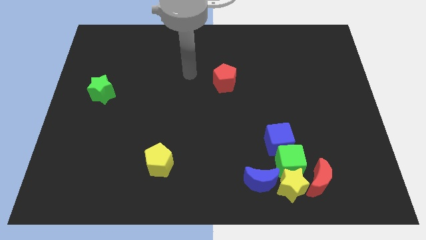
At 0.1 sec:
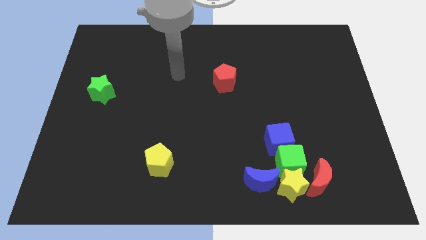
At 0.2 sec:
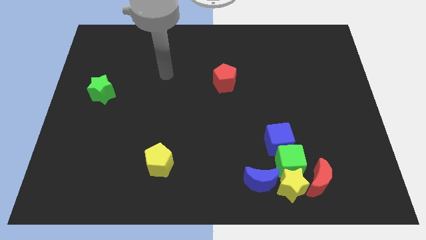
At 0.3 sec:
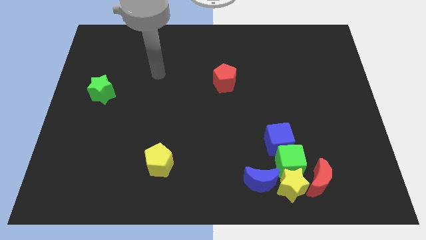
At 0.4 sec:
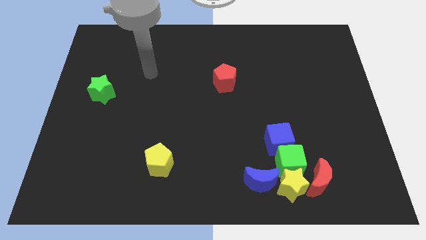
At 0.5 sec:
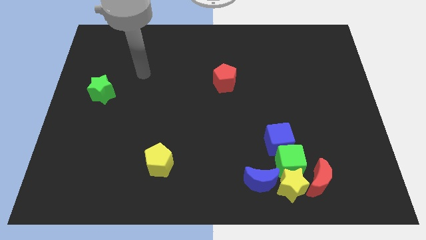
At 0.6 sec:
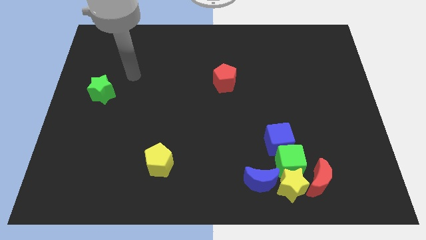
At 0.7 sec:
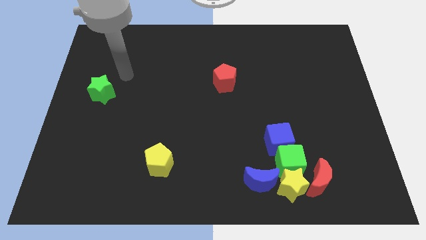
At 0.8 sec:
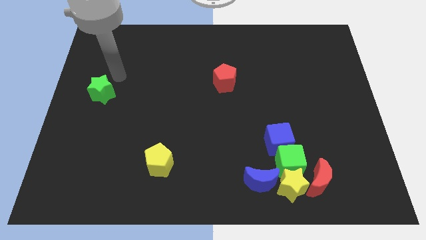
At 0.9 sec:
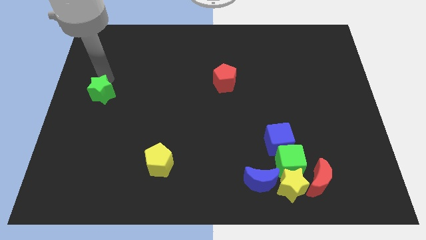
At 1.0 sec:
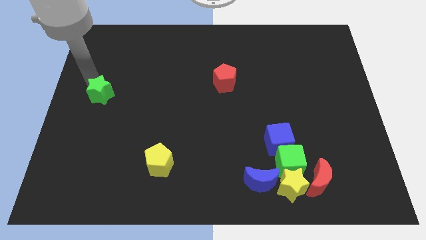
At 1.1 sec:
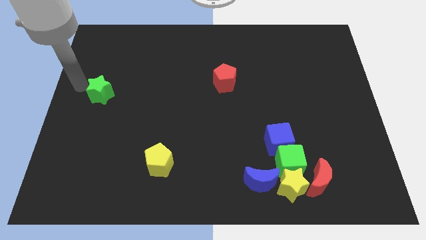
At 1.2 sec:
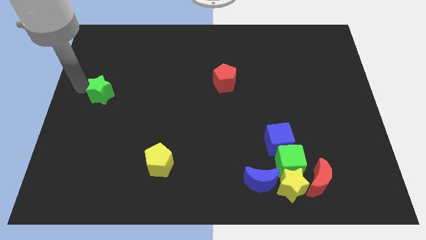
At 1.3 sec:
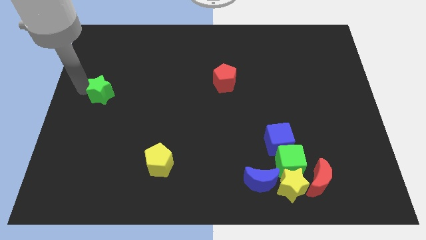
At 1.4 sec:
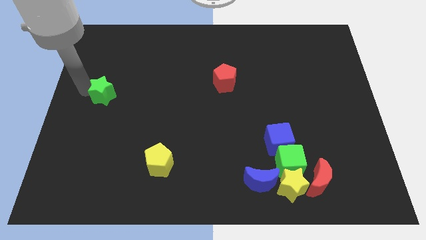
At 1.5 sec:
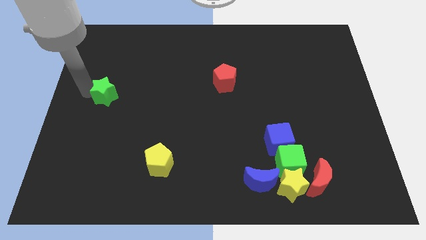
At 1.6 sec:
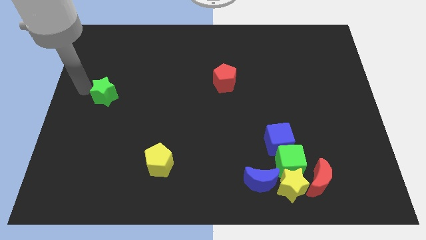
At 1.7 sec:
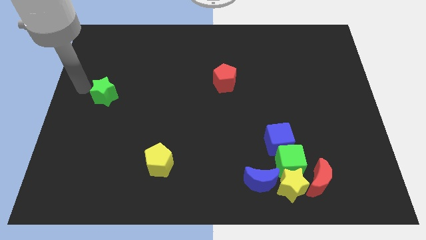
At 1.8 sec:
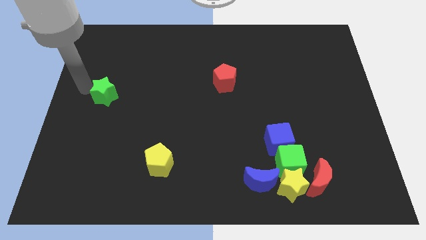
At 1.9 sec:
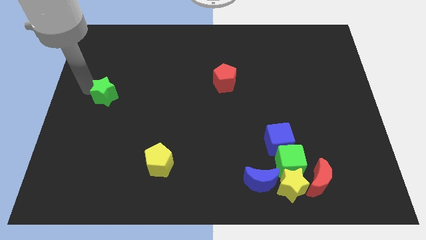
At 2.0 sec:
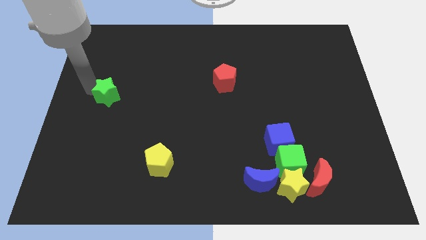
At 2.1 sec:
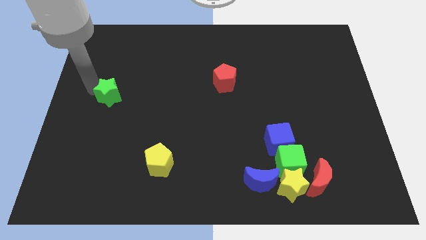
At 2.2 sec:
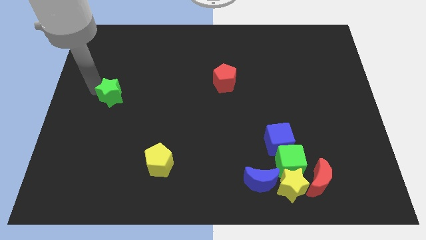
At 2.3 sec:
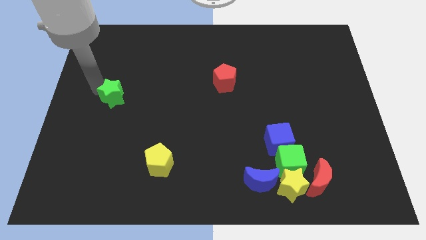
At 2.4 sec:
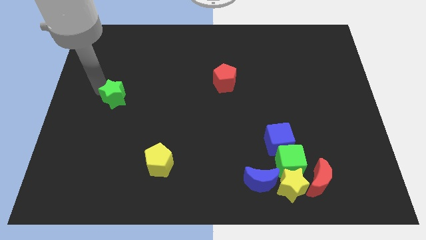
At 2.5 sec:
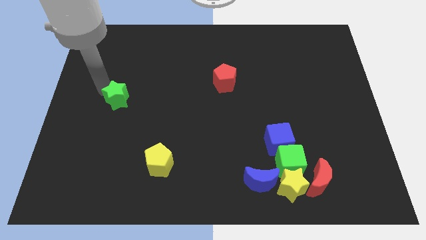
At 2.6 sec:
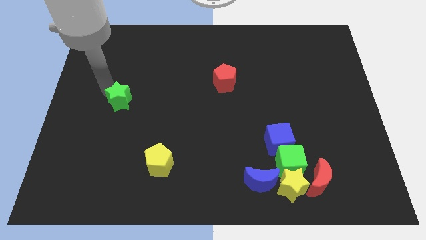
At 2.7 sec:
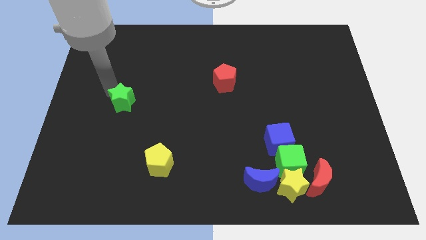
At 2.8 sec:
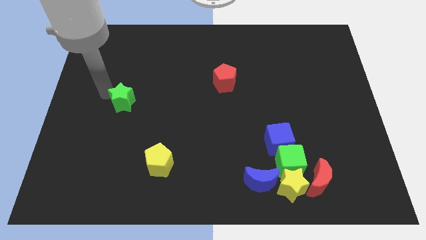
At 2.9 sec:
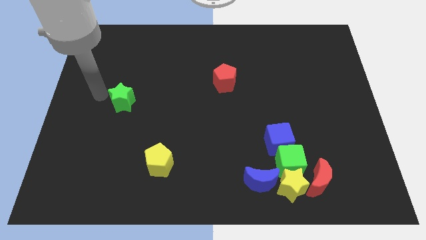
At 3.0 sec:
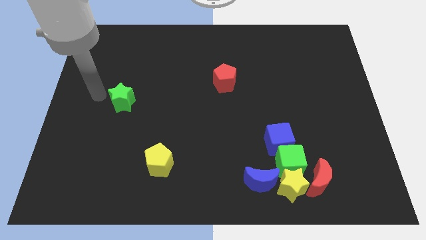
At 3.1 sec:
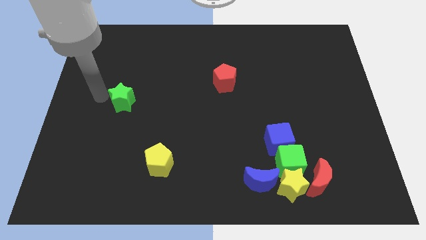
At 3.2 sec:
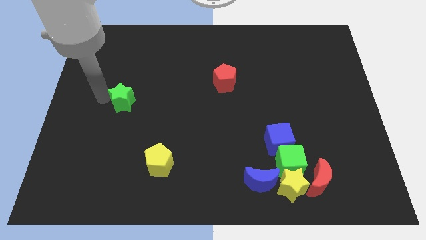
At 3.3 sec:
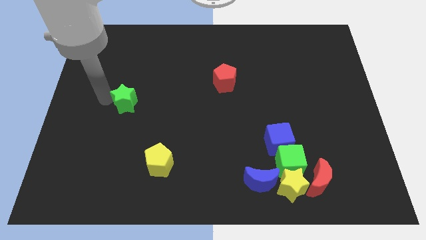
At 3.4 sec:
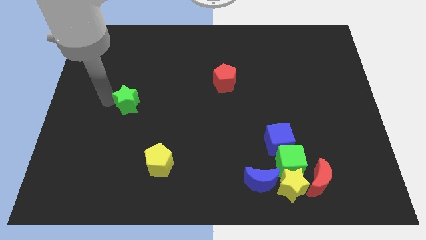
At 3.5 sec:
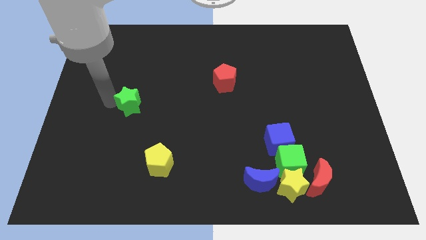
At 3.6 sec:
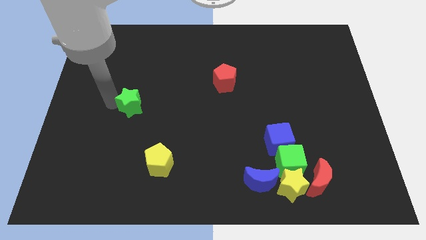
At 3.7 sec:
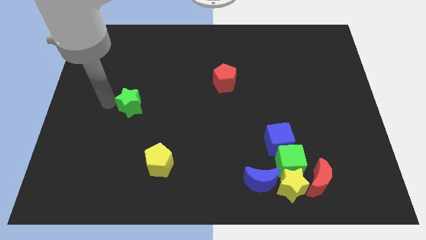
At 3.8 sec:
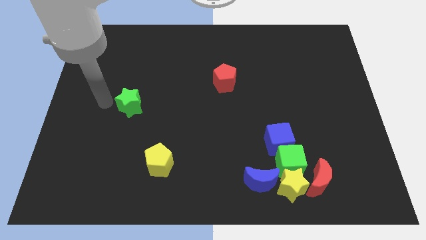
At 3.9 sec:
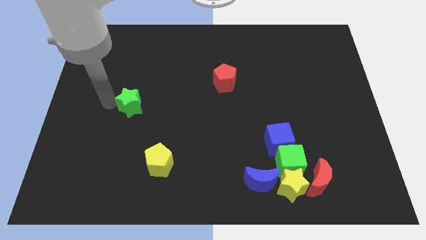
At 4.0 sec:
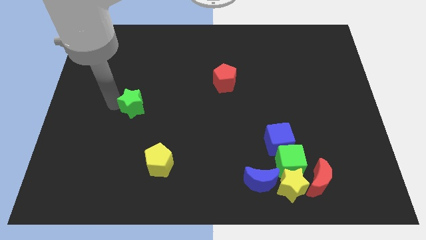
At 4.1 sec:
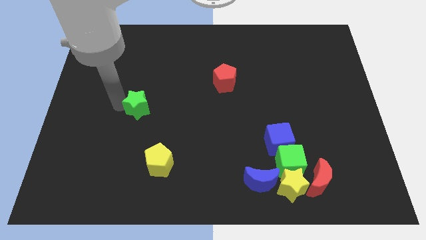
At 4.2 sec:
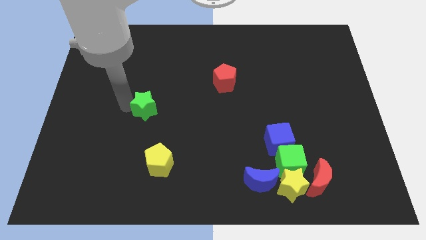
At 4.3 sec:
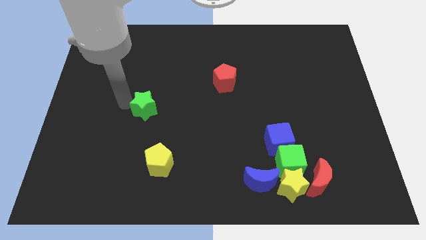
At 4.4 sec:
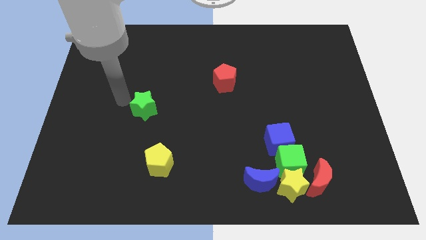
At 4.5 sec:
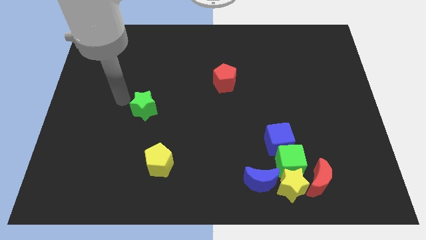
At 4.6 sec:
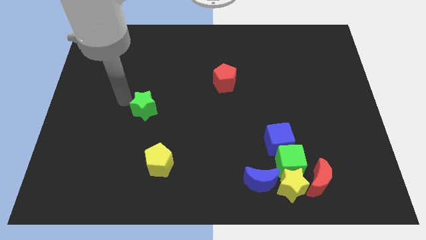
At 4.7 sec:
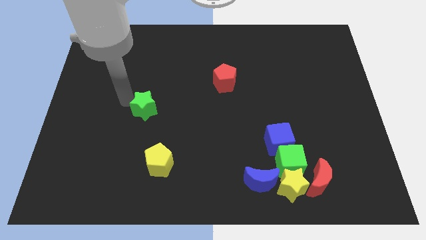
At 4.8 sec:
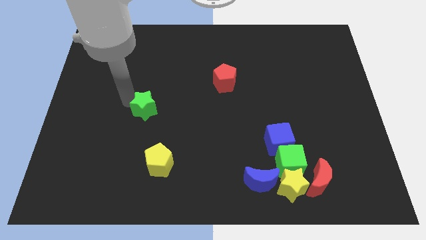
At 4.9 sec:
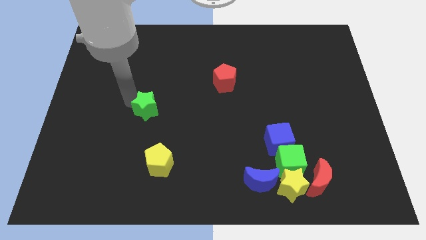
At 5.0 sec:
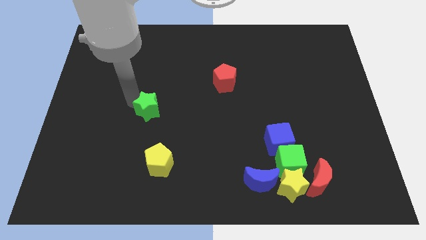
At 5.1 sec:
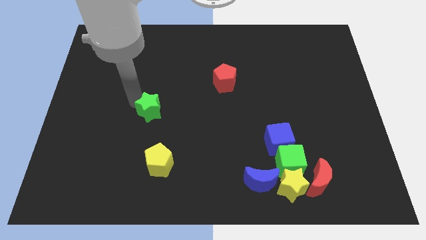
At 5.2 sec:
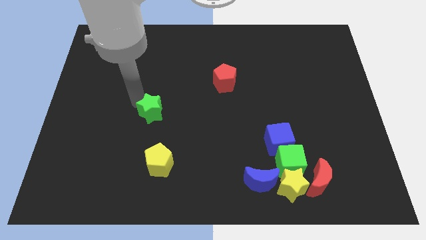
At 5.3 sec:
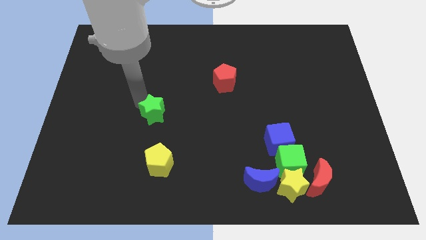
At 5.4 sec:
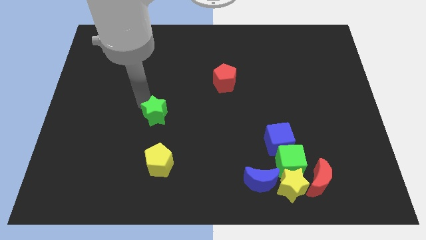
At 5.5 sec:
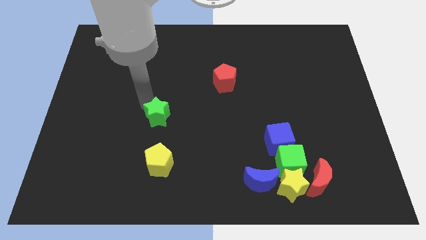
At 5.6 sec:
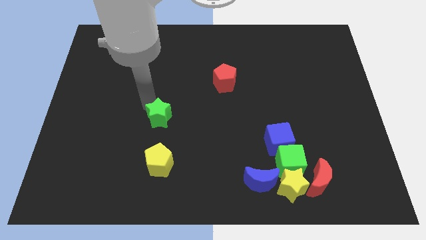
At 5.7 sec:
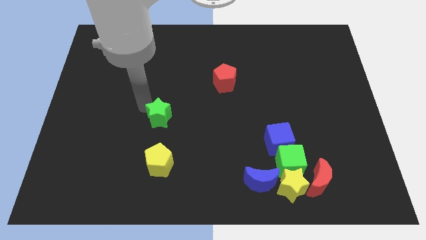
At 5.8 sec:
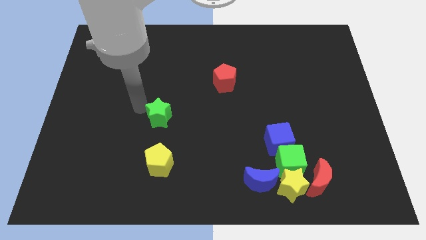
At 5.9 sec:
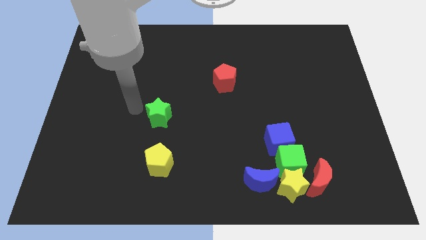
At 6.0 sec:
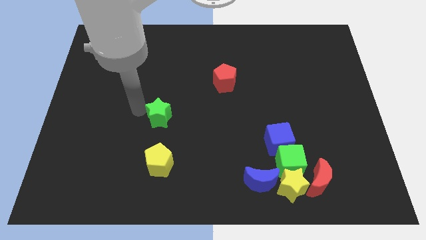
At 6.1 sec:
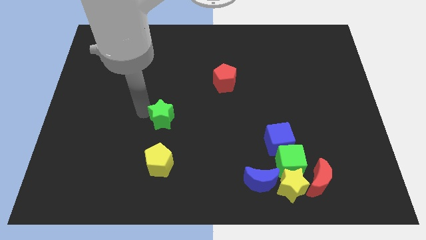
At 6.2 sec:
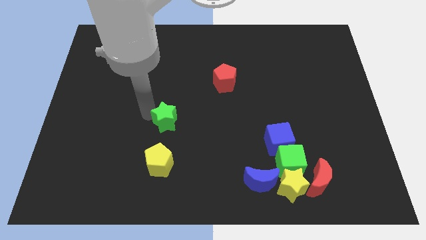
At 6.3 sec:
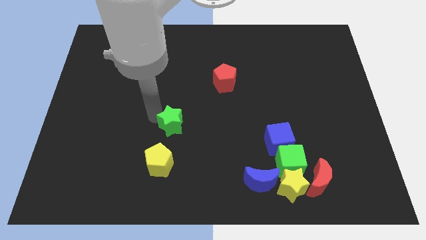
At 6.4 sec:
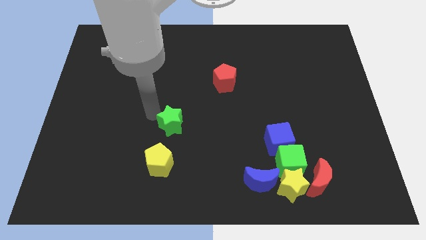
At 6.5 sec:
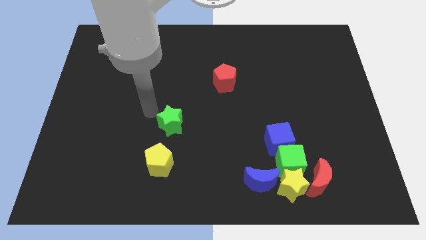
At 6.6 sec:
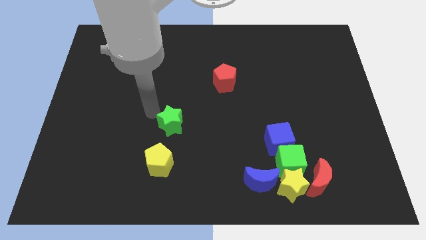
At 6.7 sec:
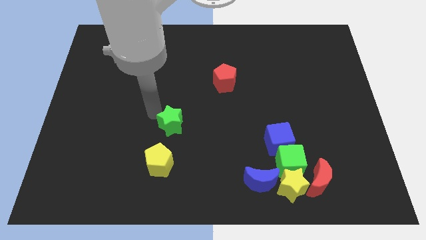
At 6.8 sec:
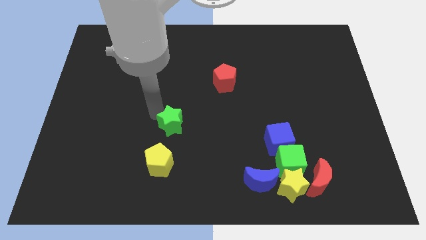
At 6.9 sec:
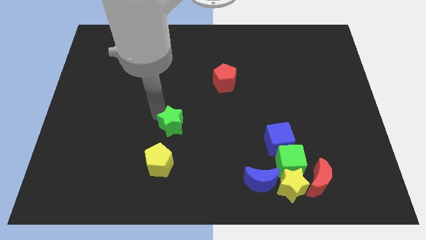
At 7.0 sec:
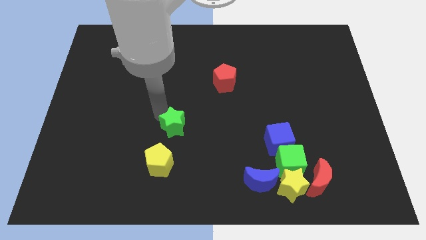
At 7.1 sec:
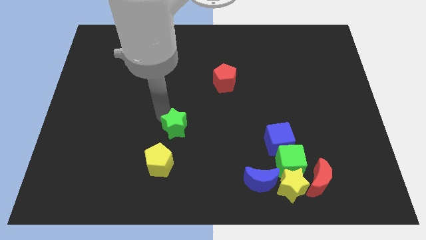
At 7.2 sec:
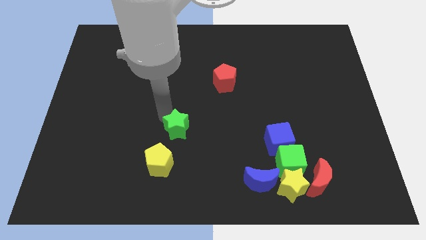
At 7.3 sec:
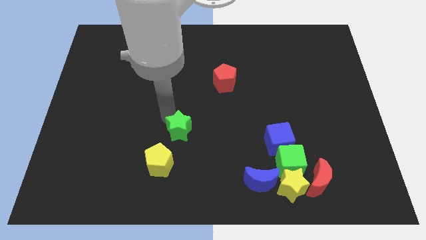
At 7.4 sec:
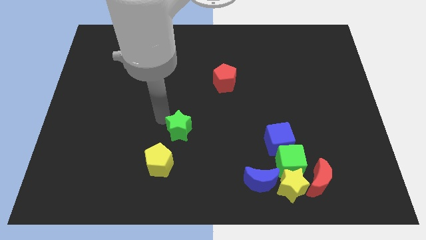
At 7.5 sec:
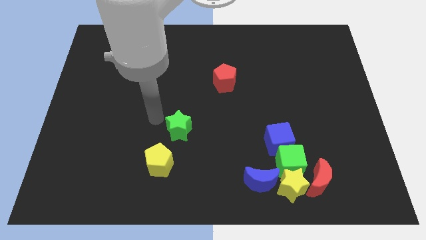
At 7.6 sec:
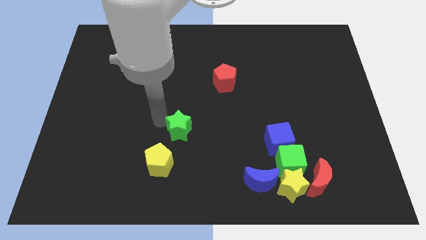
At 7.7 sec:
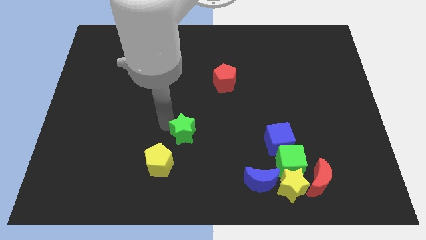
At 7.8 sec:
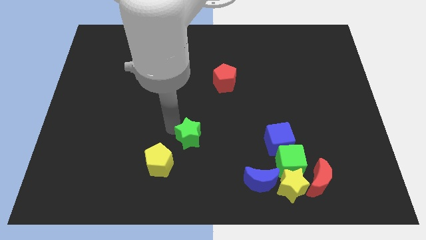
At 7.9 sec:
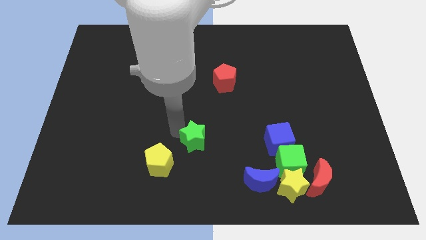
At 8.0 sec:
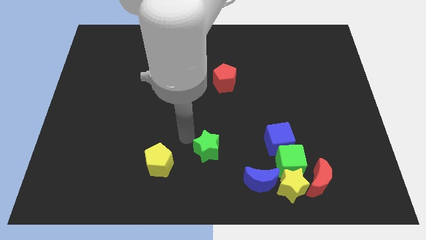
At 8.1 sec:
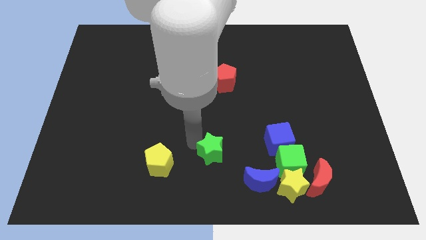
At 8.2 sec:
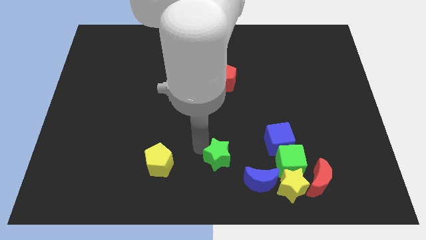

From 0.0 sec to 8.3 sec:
slide the green star to the left of the green cube
